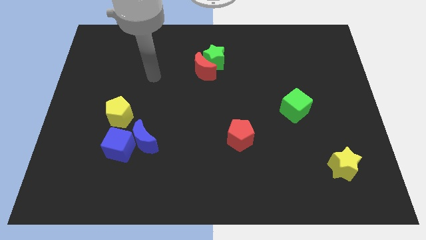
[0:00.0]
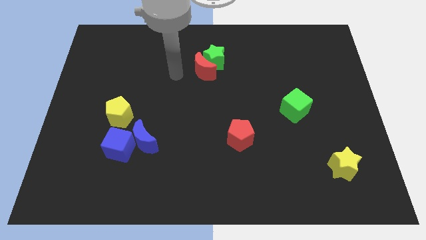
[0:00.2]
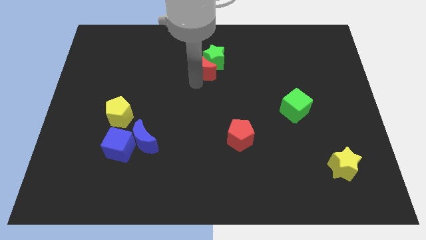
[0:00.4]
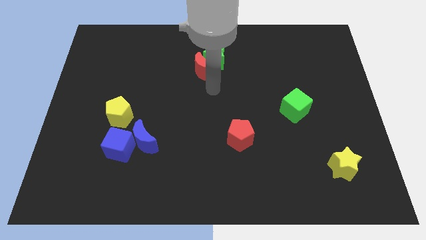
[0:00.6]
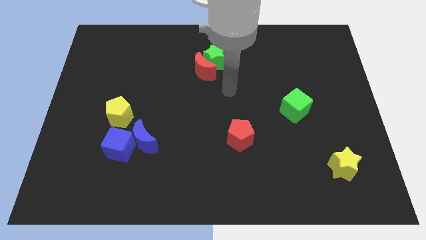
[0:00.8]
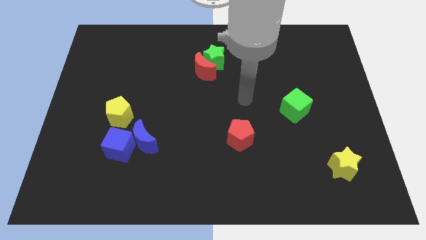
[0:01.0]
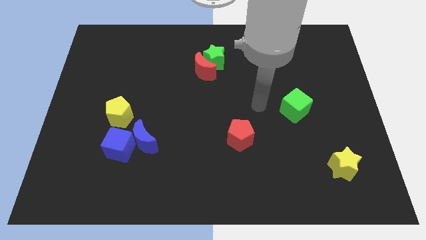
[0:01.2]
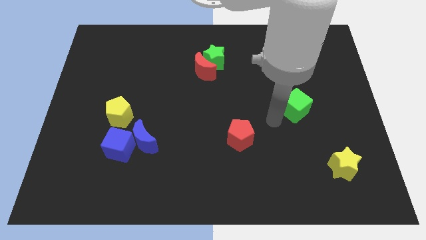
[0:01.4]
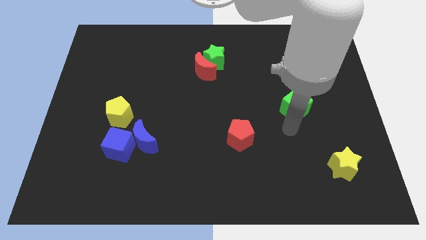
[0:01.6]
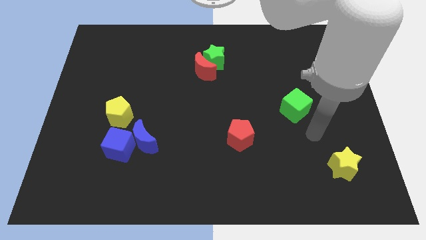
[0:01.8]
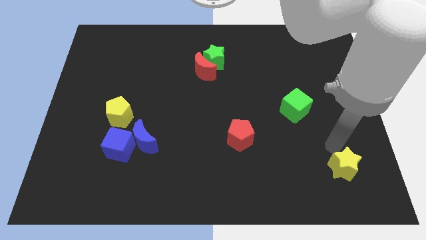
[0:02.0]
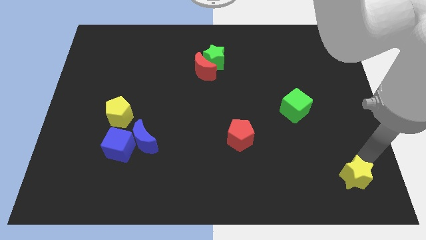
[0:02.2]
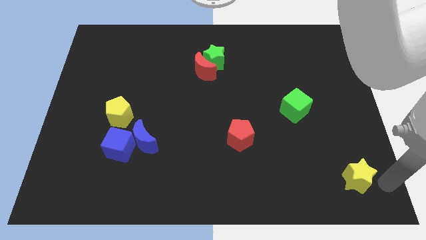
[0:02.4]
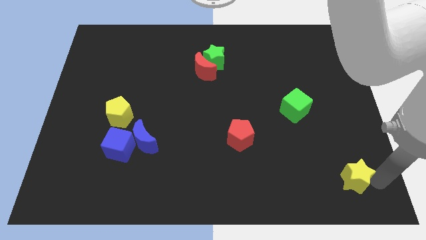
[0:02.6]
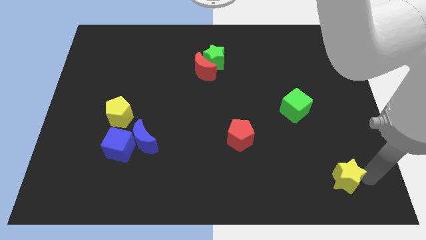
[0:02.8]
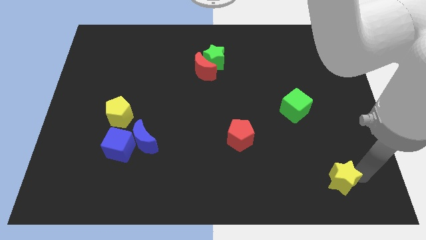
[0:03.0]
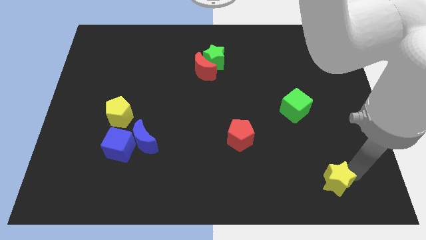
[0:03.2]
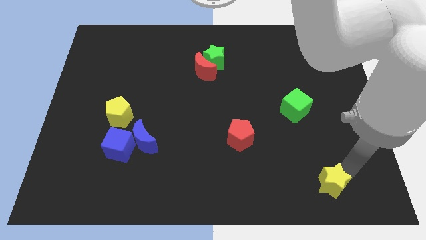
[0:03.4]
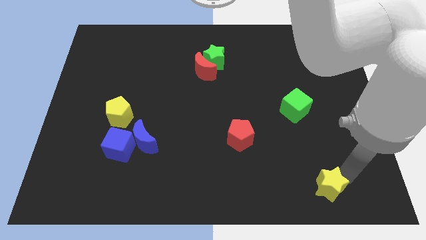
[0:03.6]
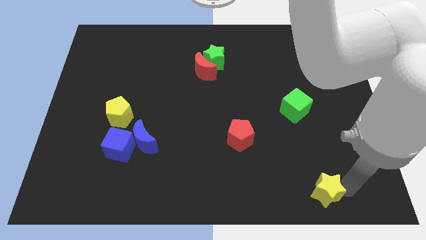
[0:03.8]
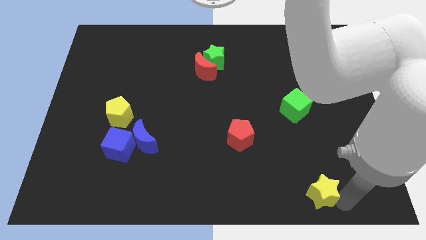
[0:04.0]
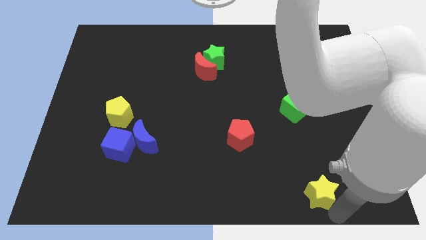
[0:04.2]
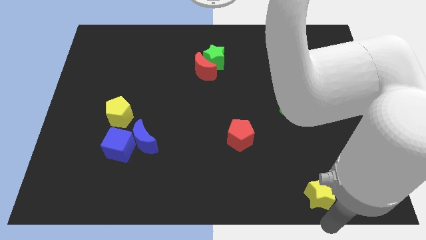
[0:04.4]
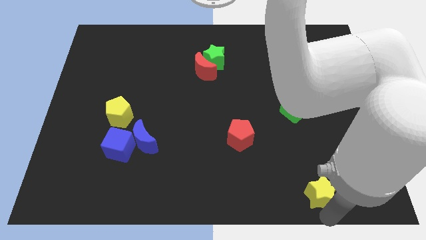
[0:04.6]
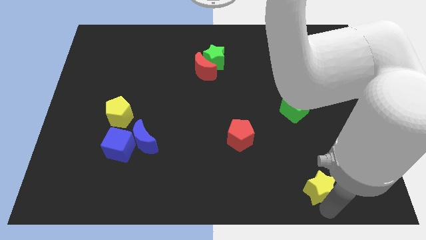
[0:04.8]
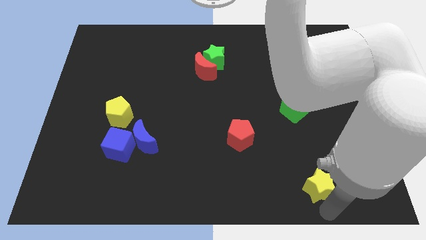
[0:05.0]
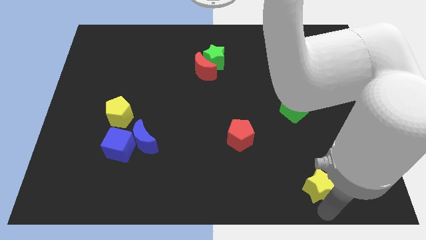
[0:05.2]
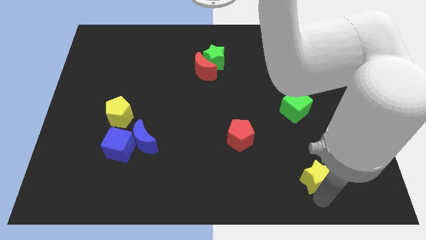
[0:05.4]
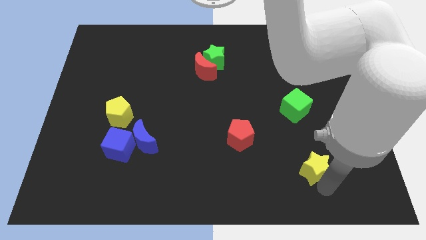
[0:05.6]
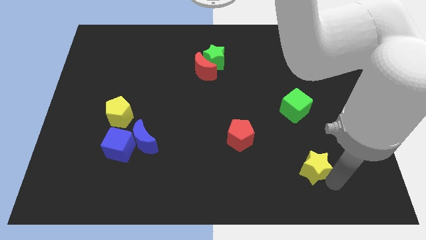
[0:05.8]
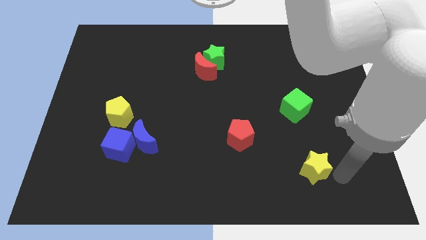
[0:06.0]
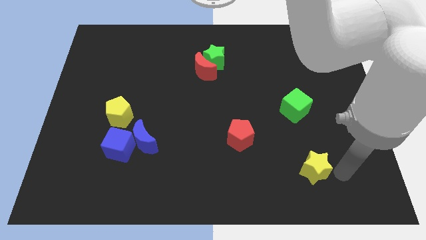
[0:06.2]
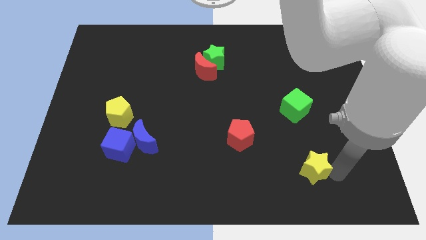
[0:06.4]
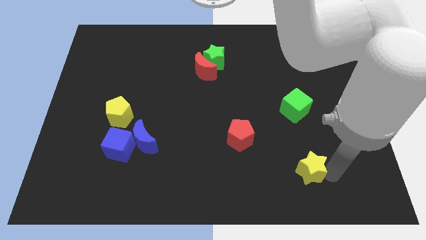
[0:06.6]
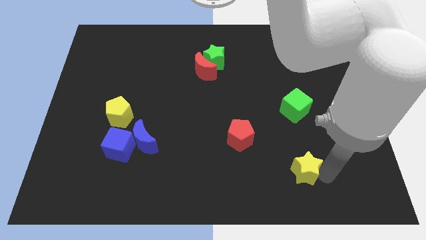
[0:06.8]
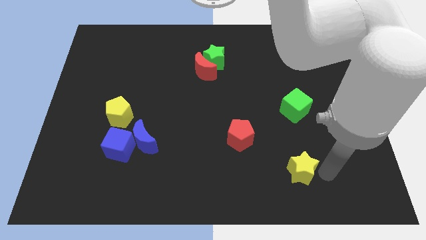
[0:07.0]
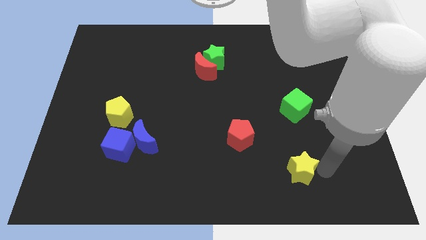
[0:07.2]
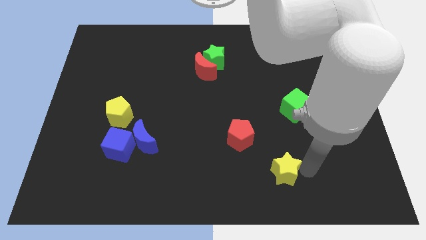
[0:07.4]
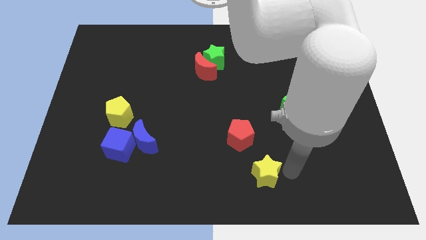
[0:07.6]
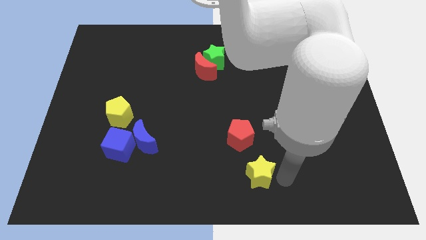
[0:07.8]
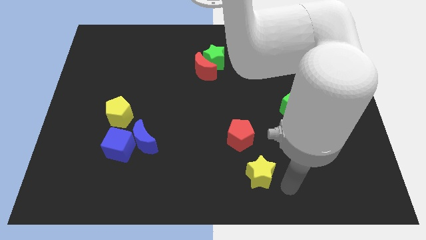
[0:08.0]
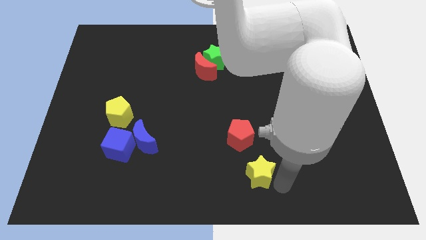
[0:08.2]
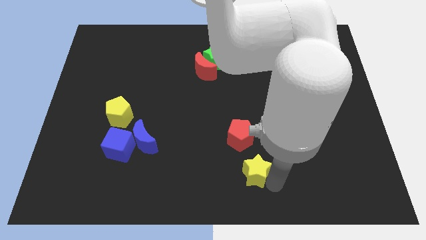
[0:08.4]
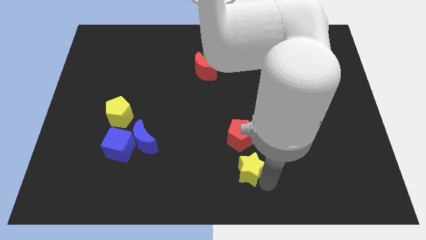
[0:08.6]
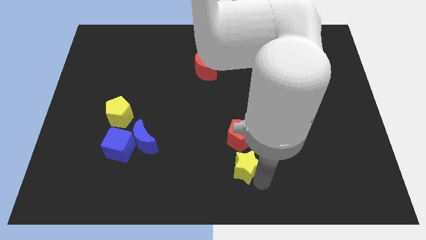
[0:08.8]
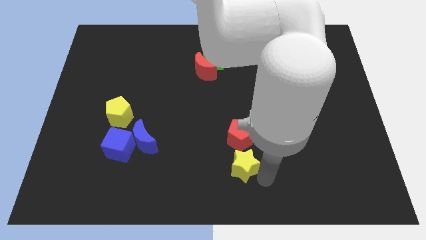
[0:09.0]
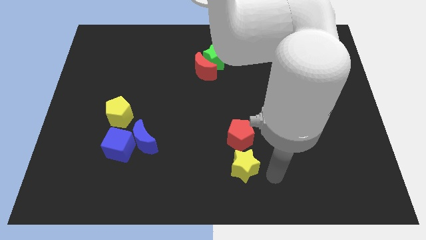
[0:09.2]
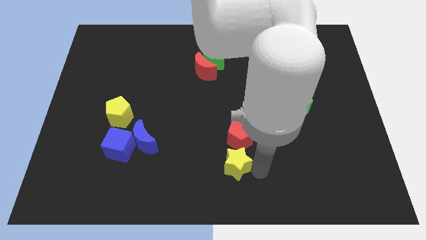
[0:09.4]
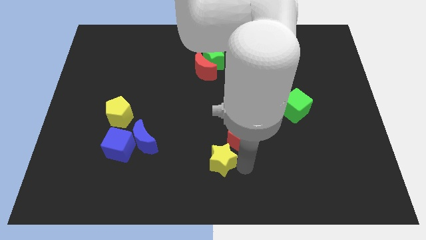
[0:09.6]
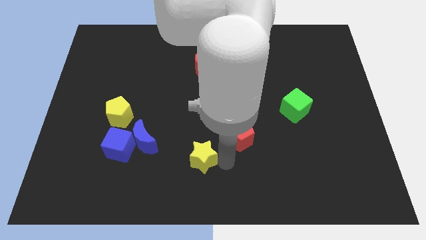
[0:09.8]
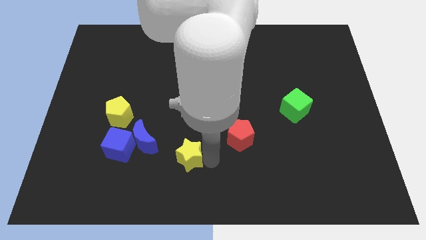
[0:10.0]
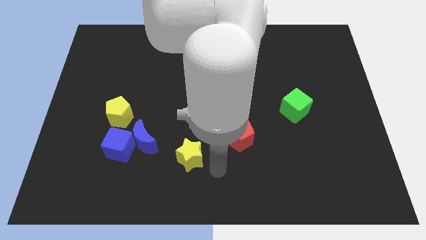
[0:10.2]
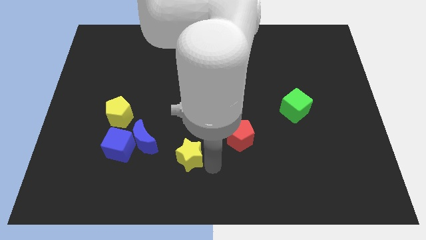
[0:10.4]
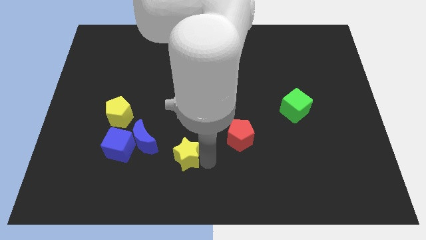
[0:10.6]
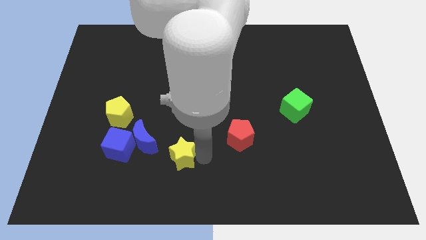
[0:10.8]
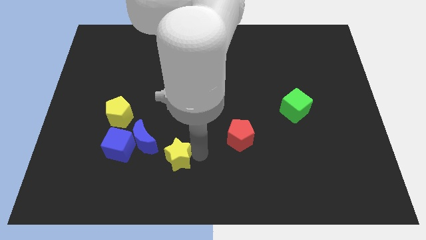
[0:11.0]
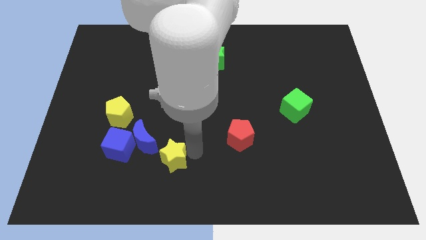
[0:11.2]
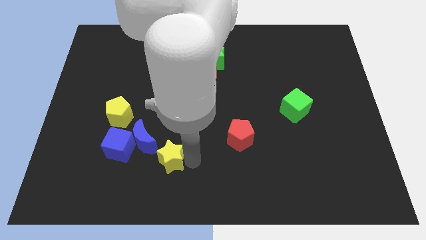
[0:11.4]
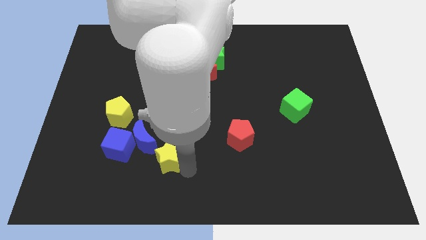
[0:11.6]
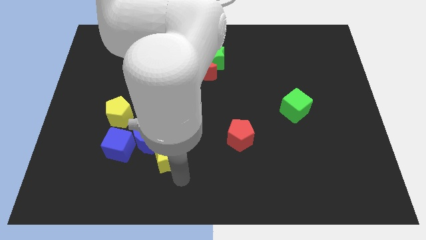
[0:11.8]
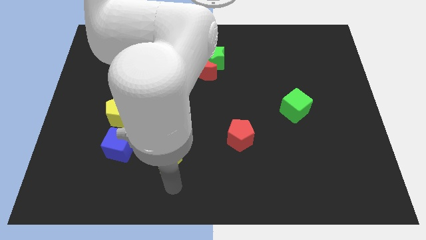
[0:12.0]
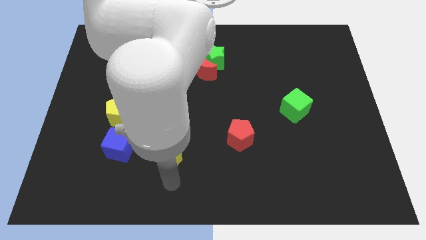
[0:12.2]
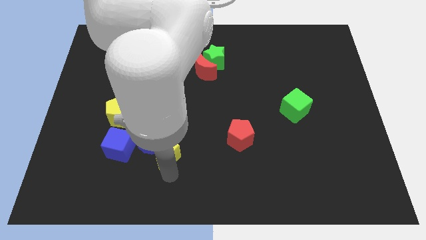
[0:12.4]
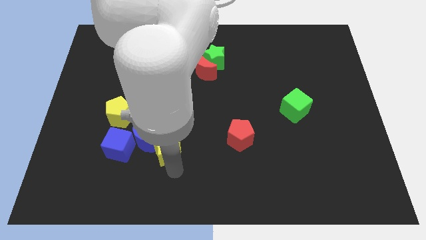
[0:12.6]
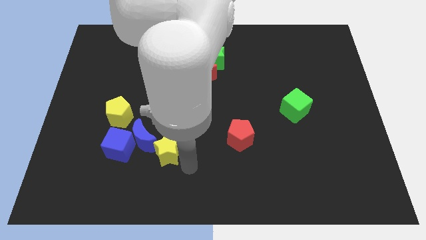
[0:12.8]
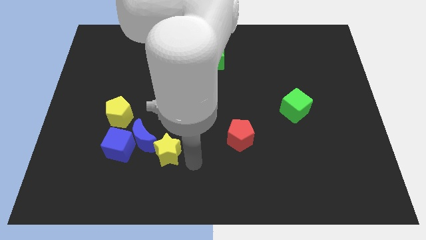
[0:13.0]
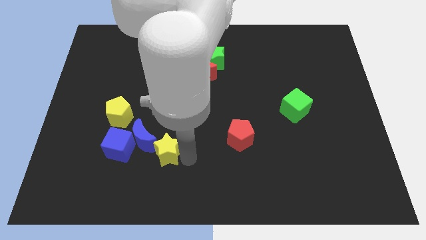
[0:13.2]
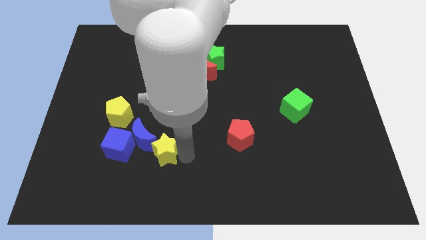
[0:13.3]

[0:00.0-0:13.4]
push the yellow star next to the blue moon
